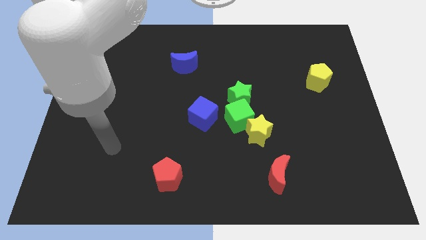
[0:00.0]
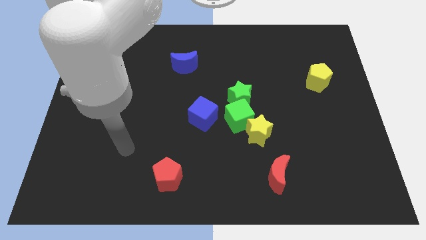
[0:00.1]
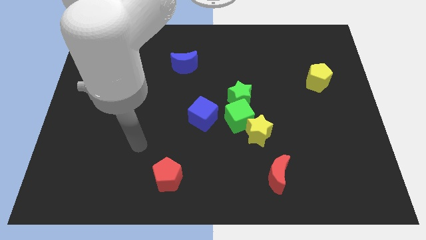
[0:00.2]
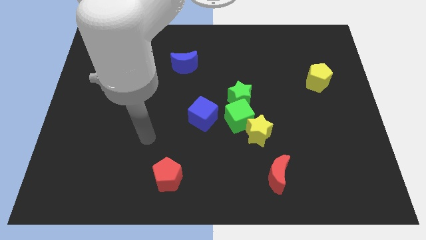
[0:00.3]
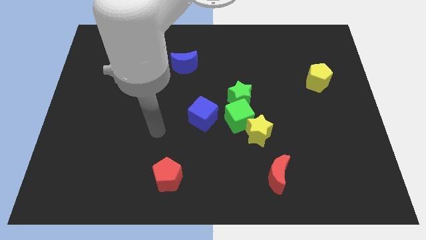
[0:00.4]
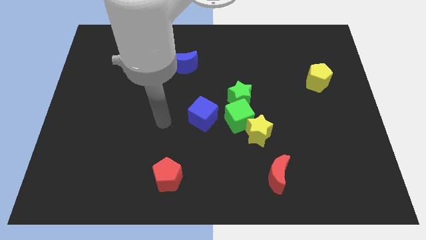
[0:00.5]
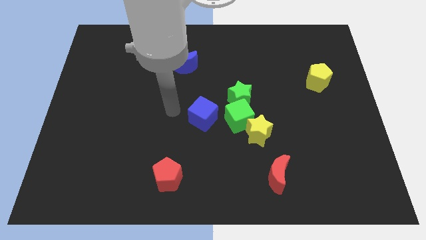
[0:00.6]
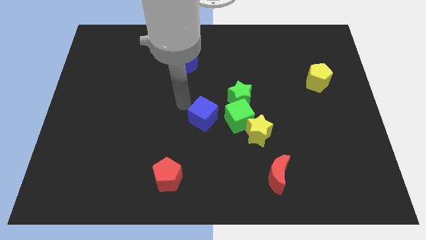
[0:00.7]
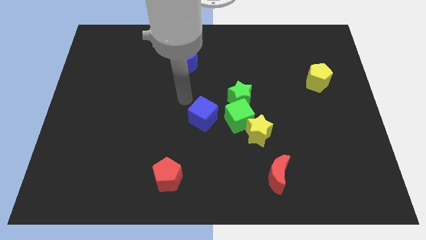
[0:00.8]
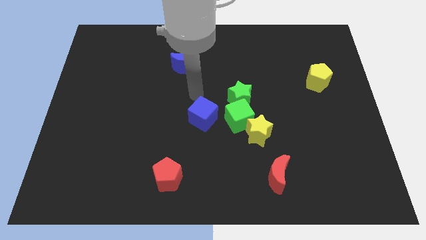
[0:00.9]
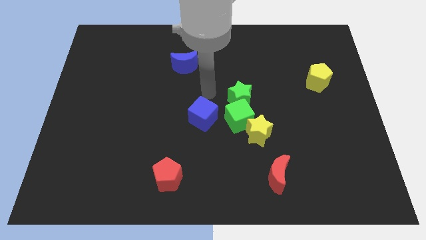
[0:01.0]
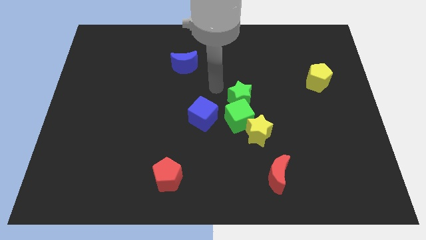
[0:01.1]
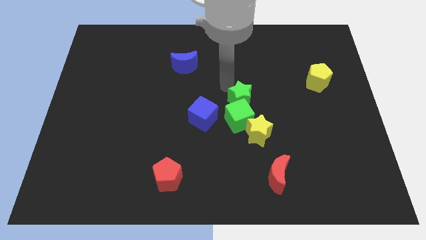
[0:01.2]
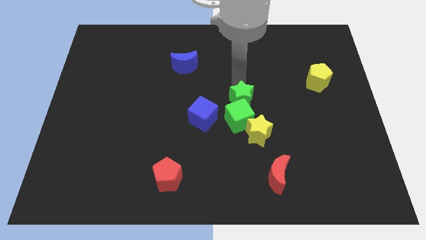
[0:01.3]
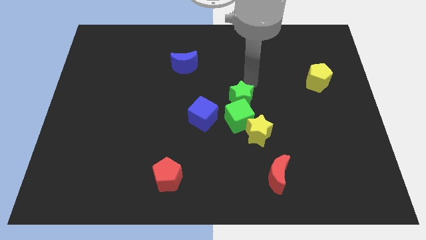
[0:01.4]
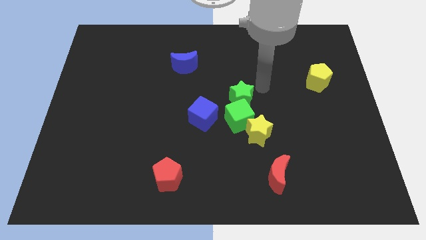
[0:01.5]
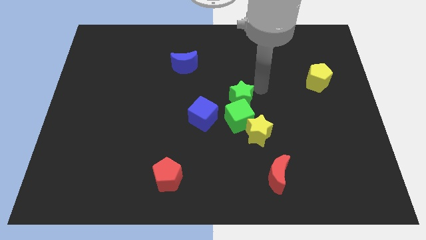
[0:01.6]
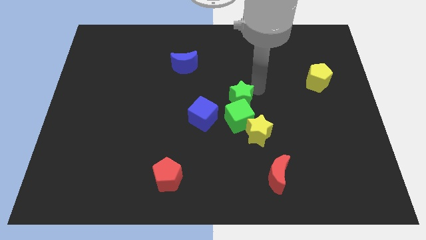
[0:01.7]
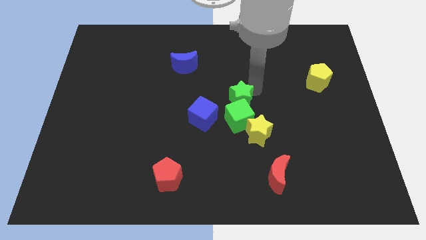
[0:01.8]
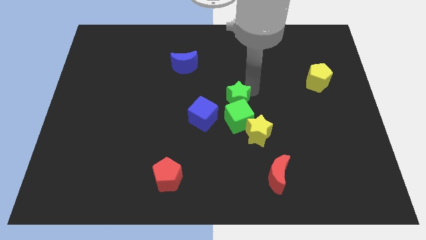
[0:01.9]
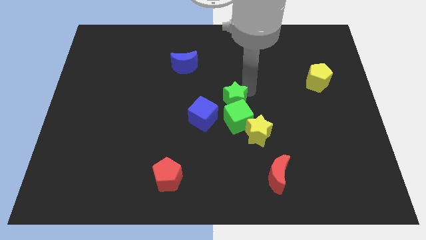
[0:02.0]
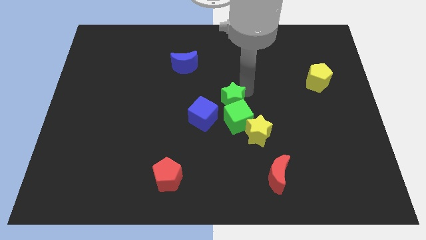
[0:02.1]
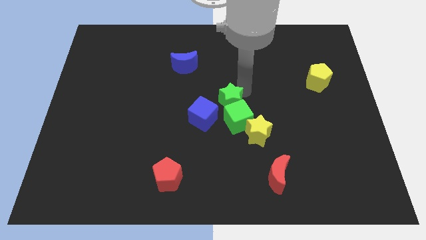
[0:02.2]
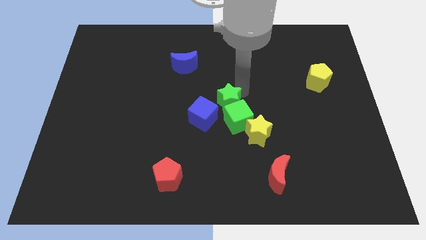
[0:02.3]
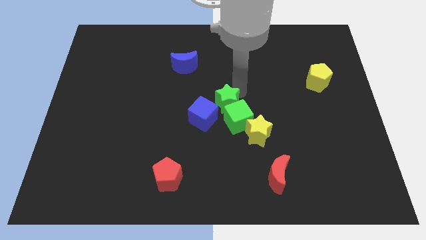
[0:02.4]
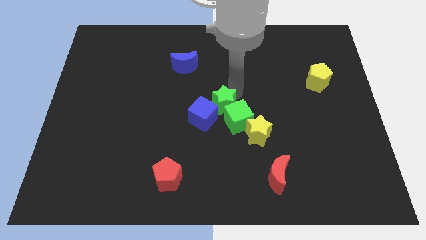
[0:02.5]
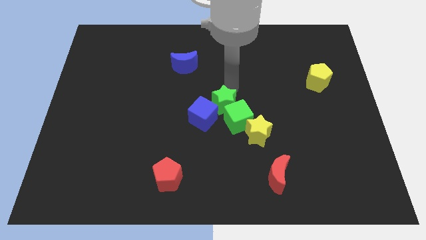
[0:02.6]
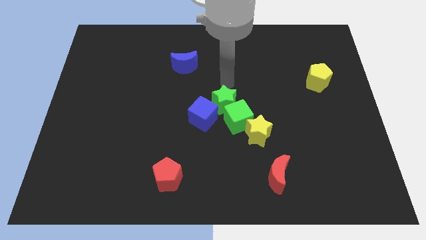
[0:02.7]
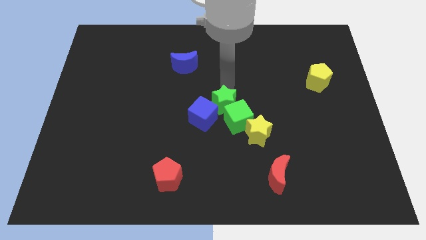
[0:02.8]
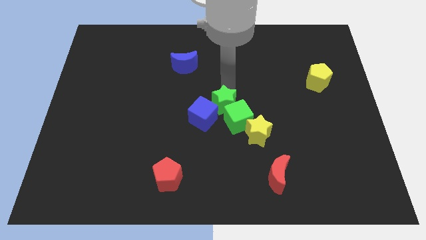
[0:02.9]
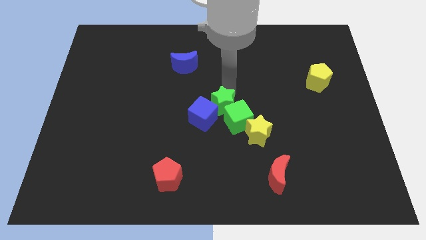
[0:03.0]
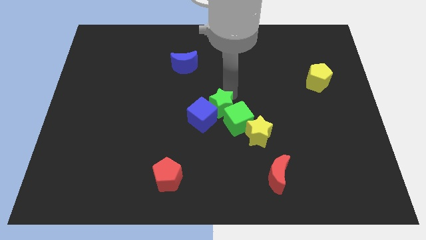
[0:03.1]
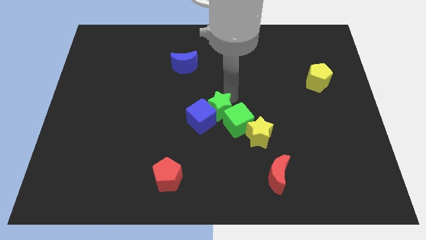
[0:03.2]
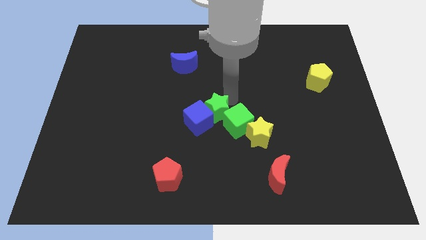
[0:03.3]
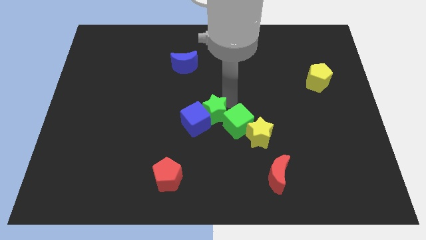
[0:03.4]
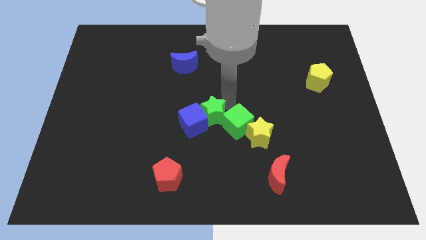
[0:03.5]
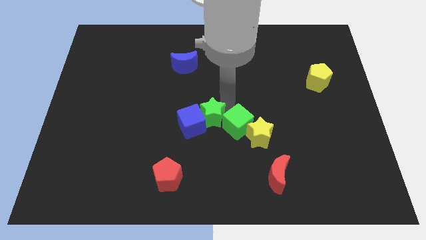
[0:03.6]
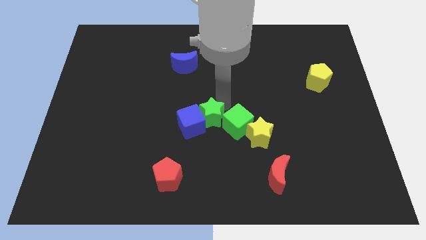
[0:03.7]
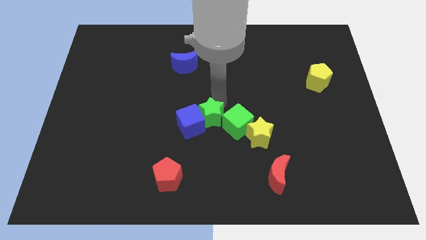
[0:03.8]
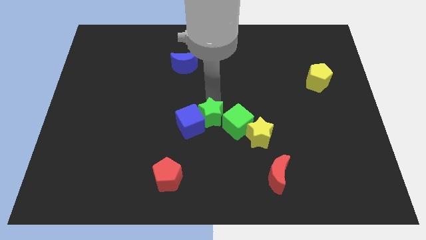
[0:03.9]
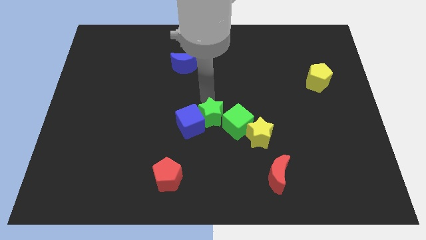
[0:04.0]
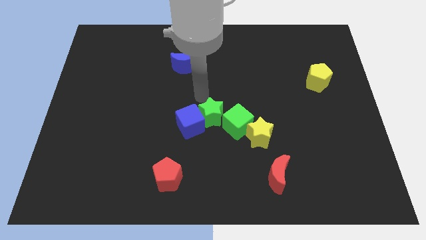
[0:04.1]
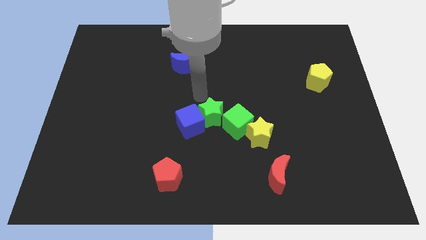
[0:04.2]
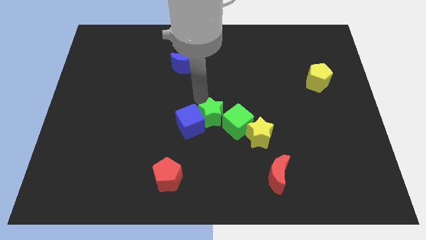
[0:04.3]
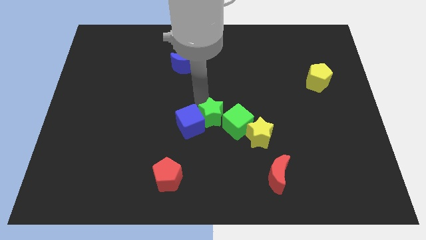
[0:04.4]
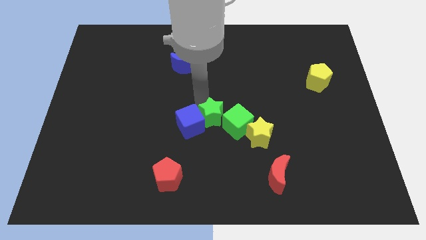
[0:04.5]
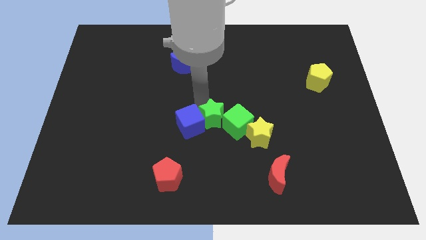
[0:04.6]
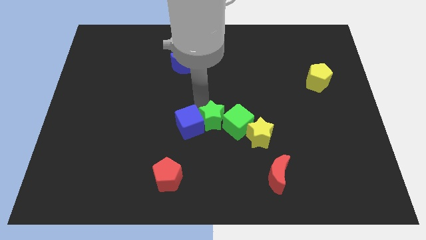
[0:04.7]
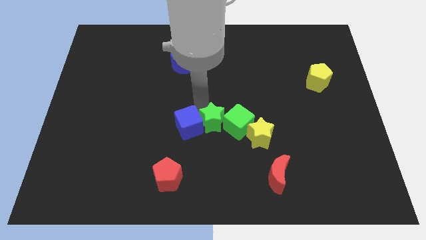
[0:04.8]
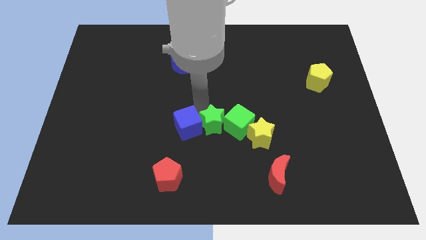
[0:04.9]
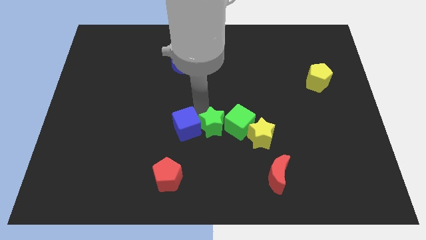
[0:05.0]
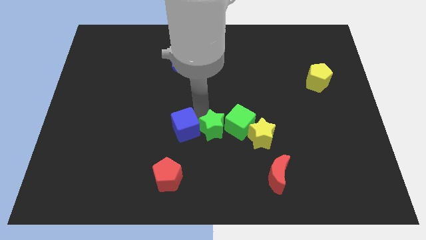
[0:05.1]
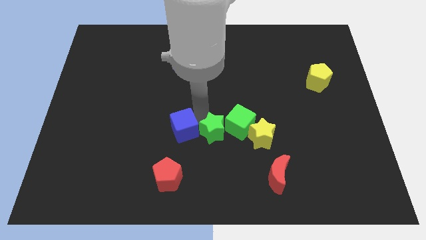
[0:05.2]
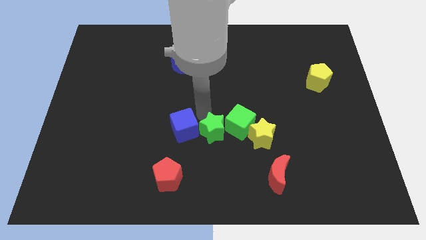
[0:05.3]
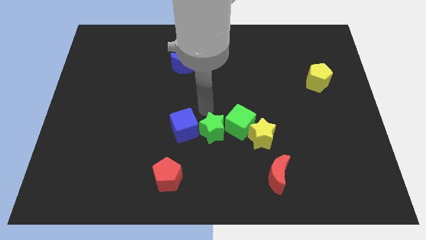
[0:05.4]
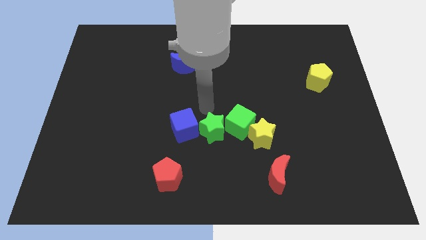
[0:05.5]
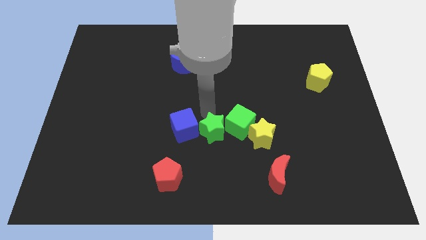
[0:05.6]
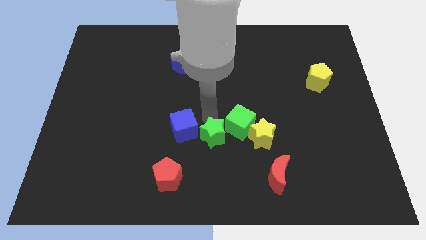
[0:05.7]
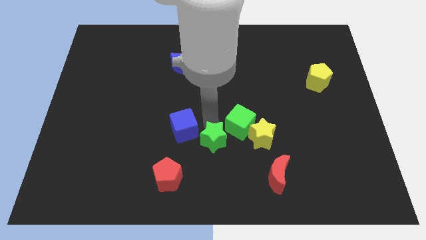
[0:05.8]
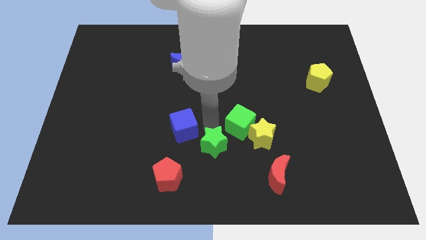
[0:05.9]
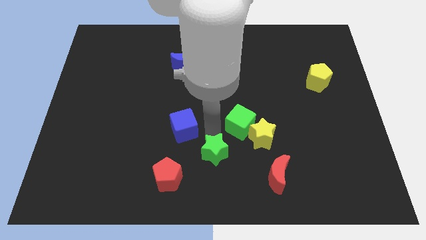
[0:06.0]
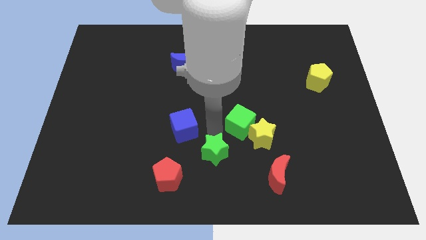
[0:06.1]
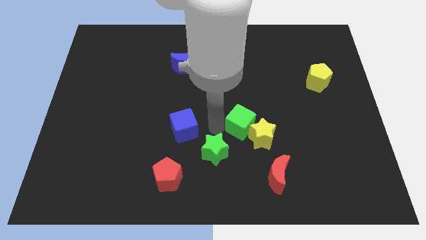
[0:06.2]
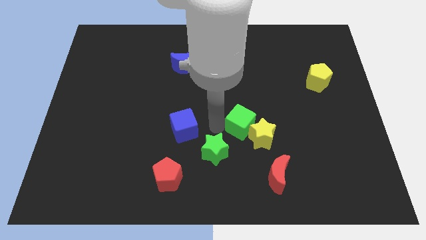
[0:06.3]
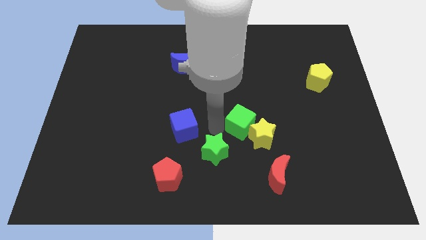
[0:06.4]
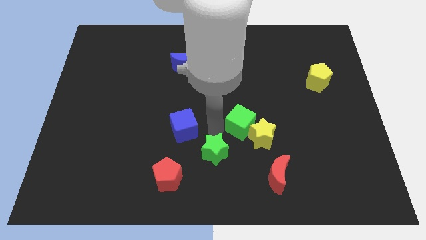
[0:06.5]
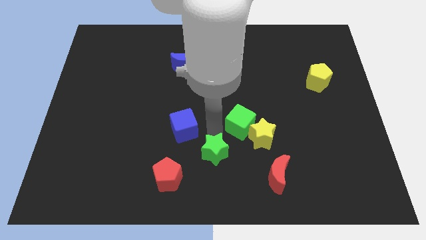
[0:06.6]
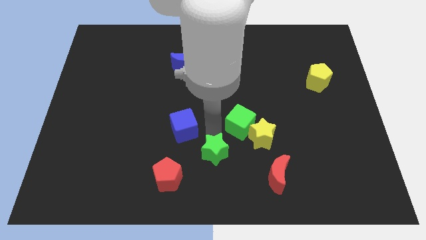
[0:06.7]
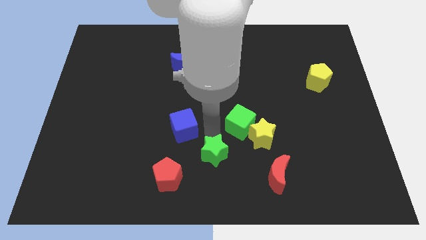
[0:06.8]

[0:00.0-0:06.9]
push the green star to the bottom side

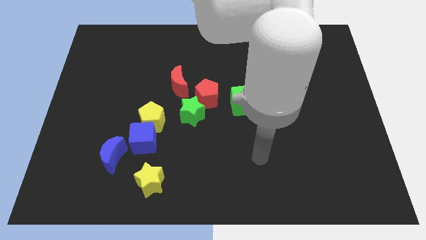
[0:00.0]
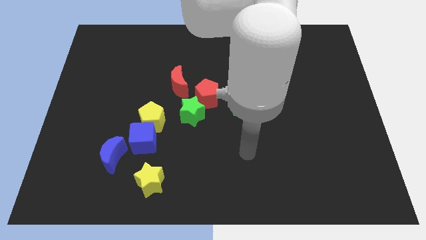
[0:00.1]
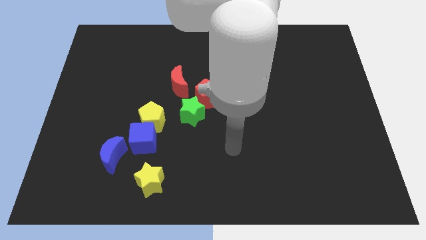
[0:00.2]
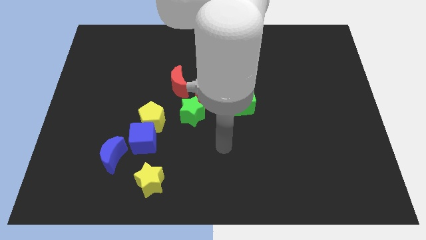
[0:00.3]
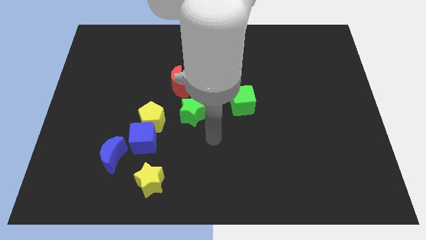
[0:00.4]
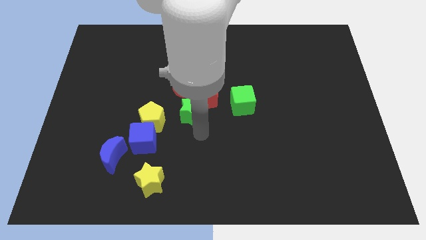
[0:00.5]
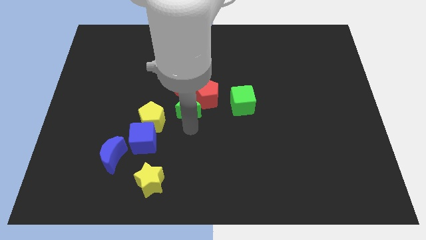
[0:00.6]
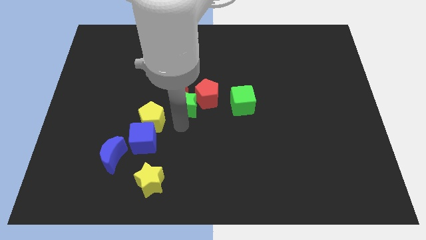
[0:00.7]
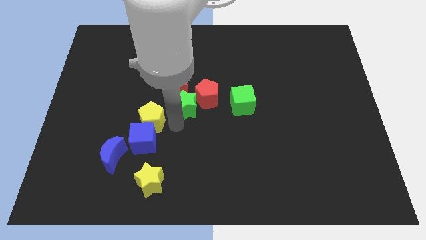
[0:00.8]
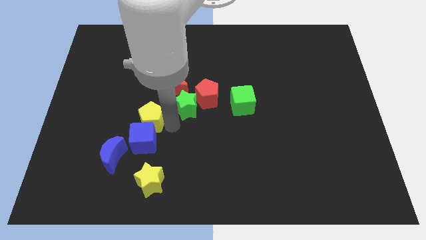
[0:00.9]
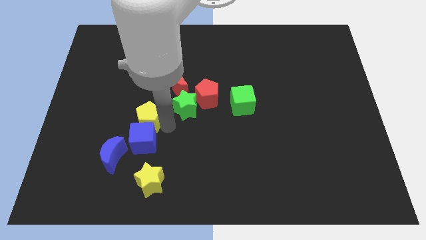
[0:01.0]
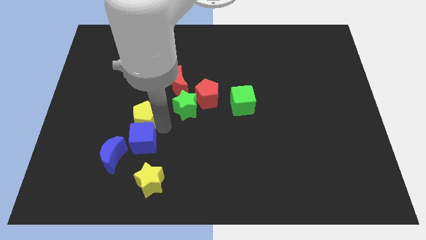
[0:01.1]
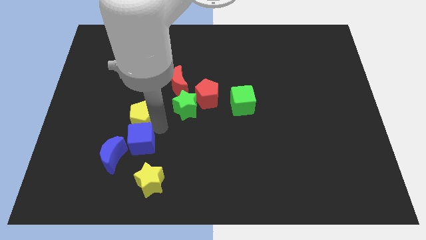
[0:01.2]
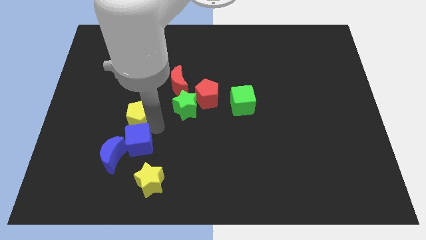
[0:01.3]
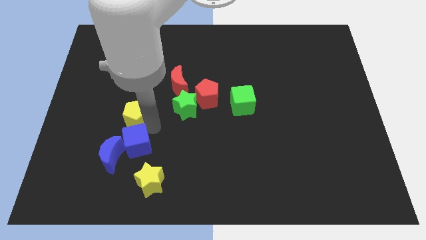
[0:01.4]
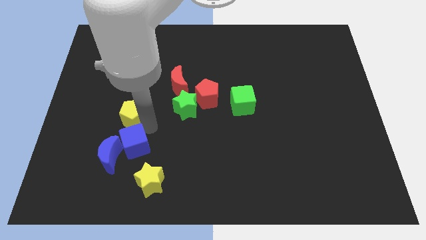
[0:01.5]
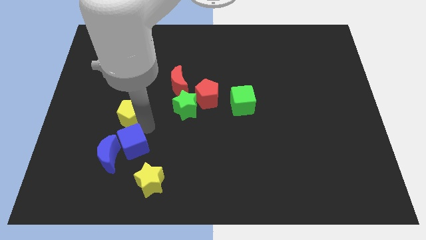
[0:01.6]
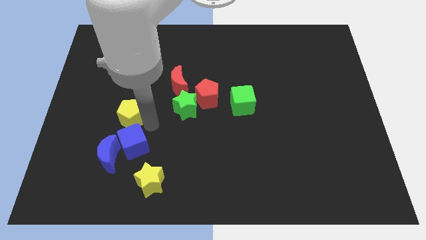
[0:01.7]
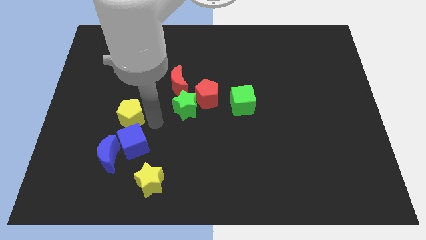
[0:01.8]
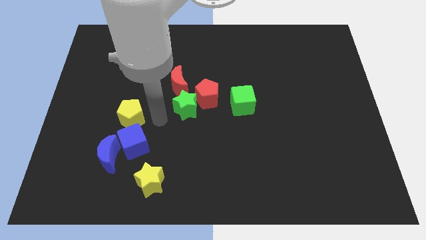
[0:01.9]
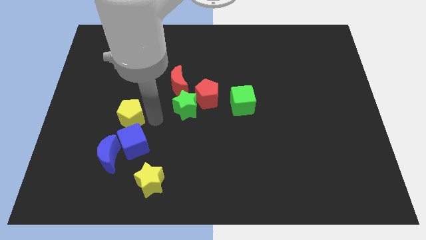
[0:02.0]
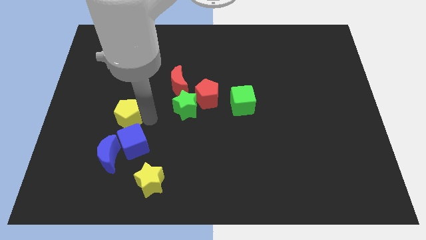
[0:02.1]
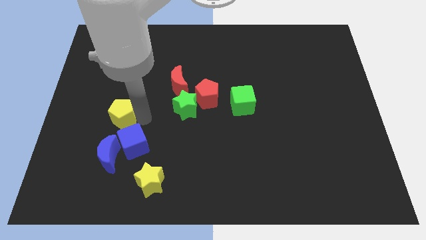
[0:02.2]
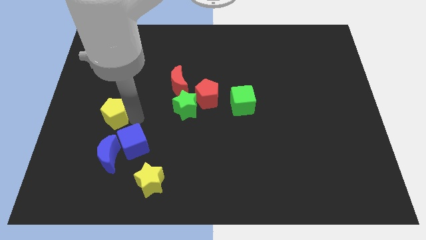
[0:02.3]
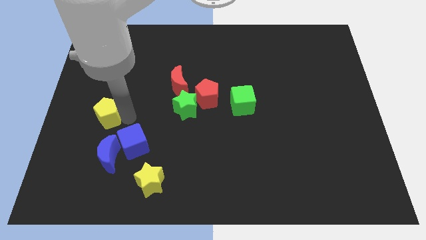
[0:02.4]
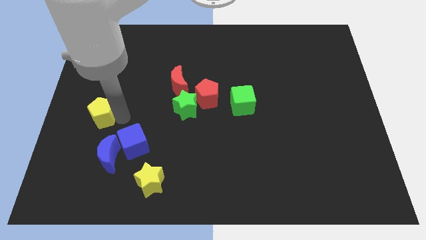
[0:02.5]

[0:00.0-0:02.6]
put the yellow pentagon to the left side
